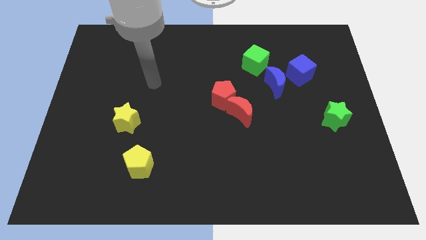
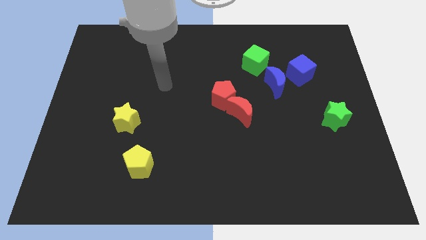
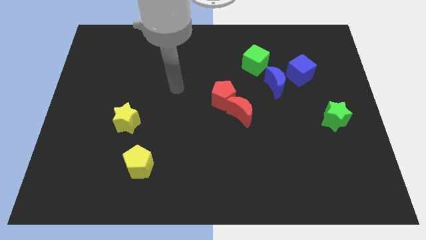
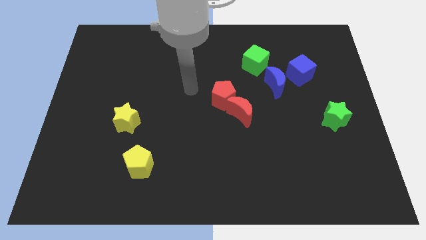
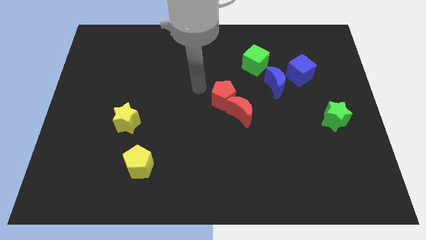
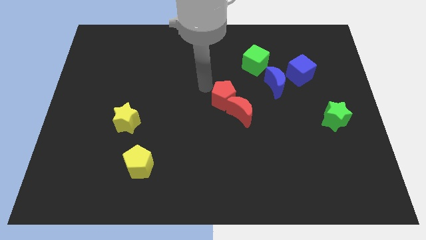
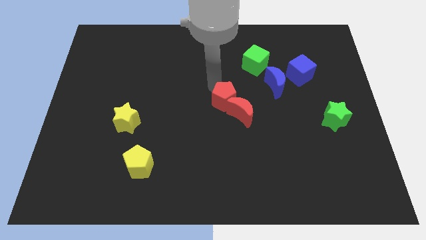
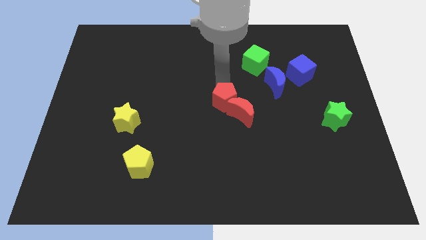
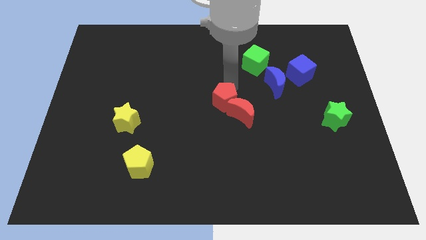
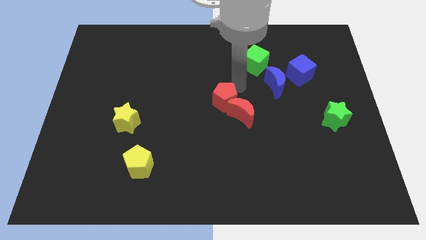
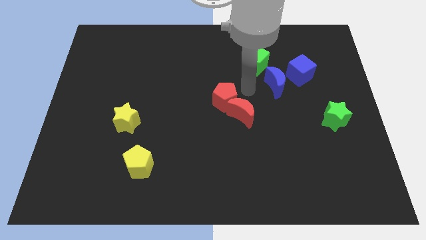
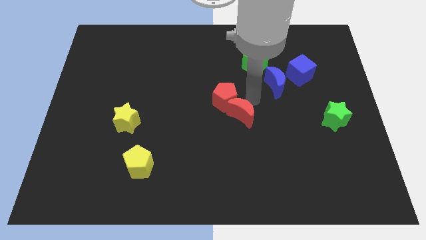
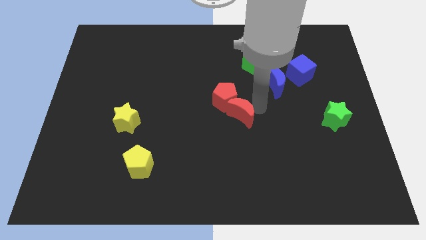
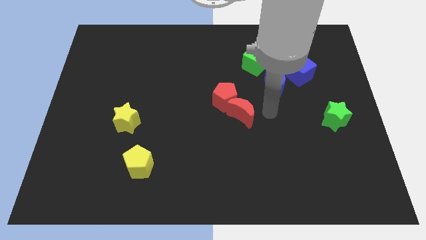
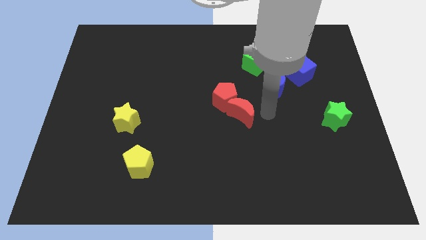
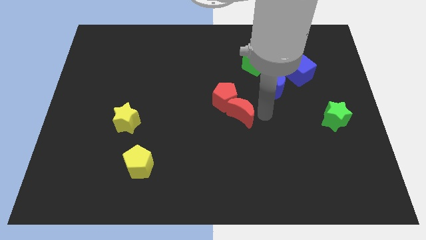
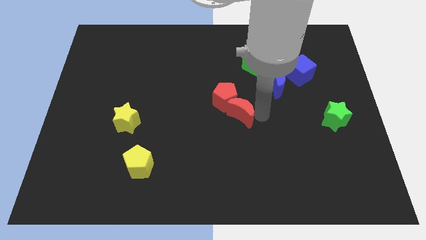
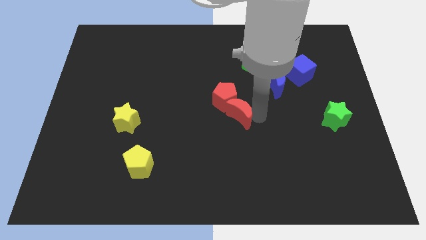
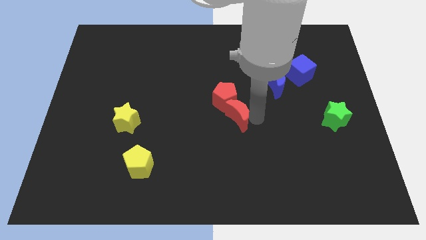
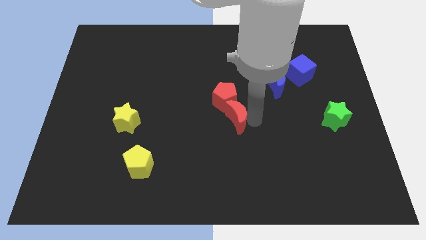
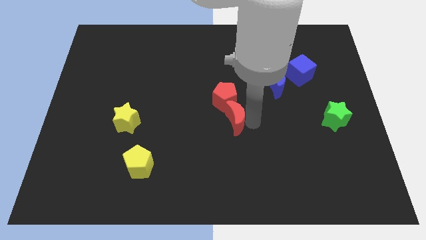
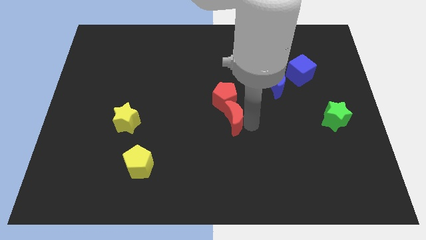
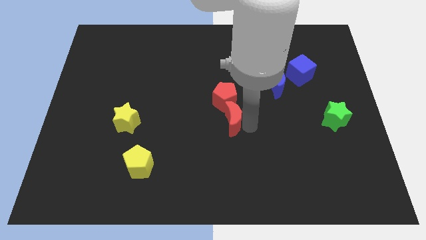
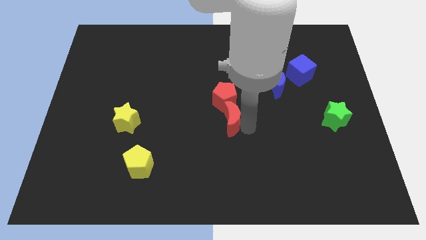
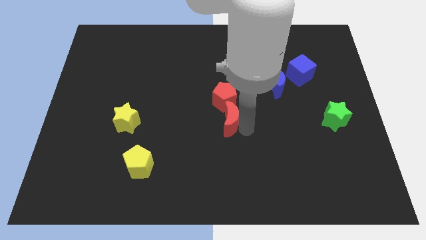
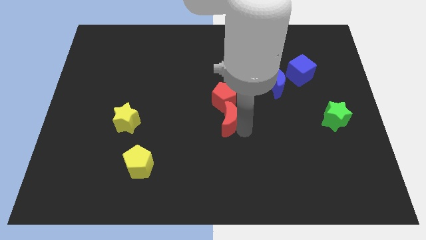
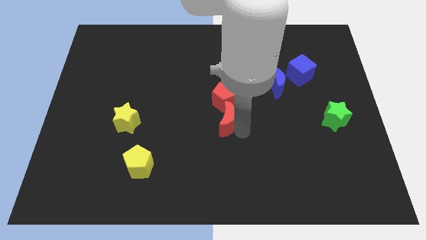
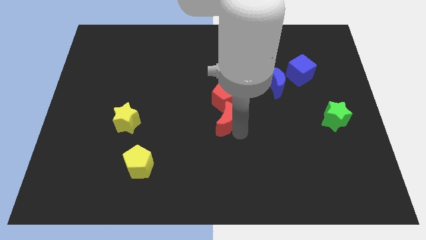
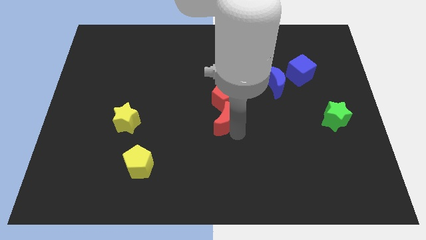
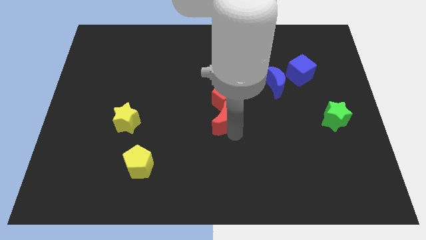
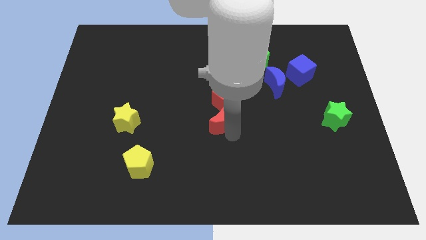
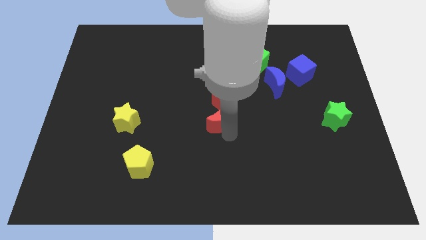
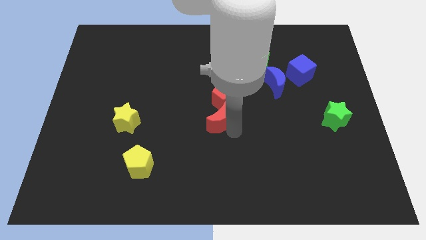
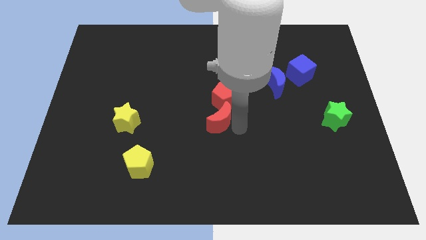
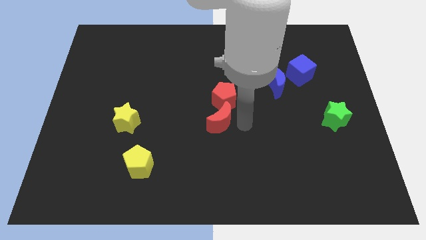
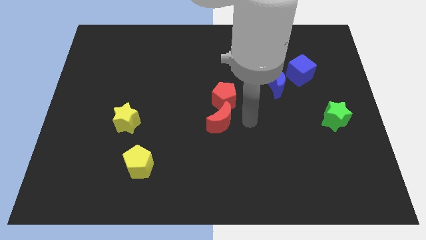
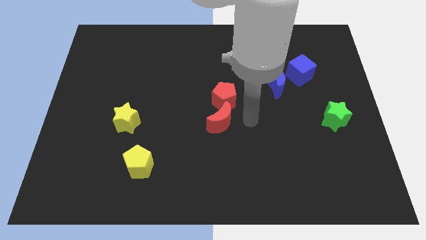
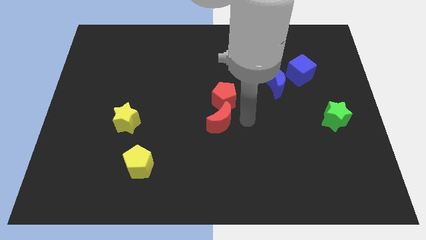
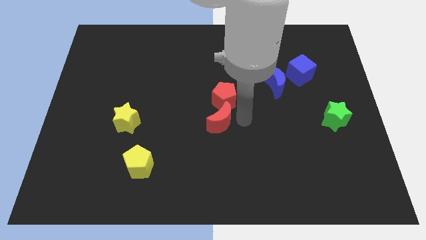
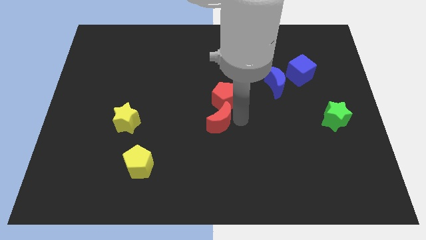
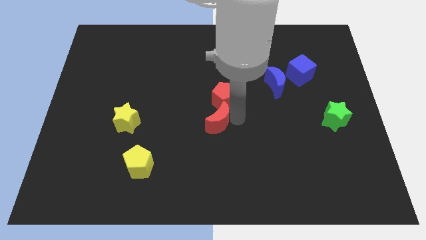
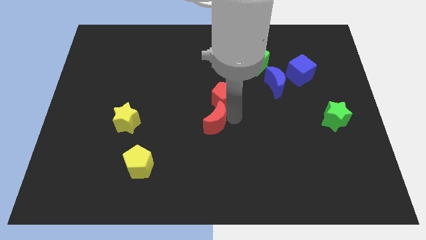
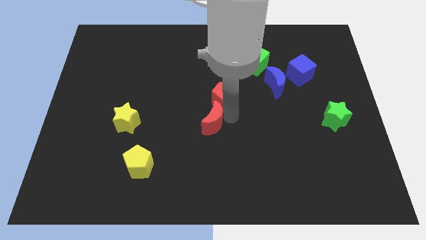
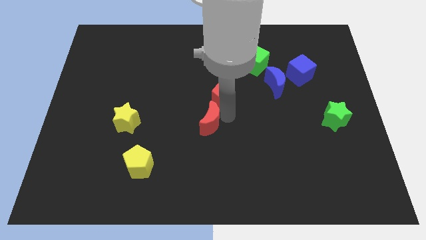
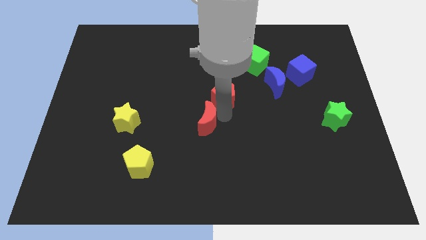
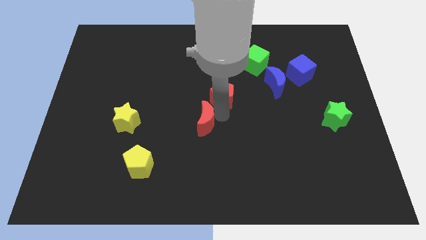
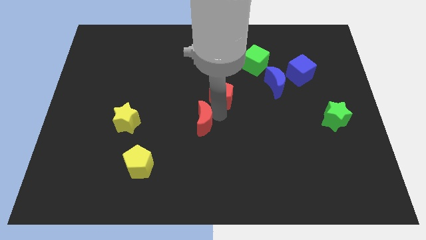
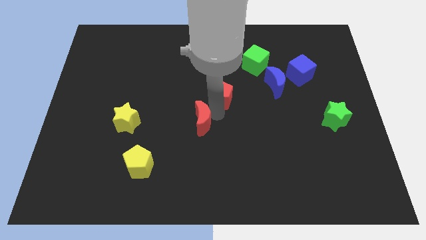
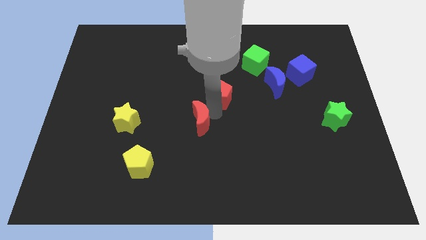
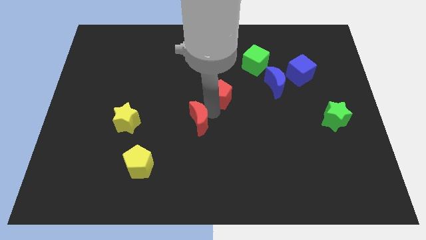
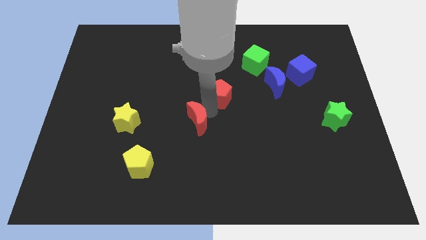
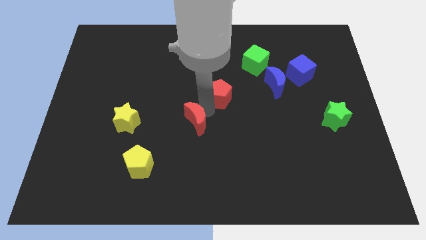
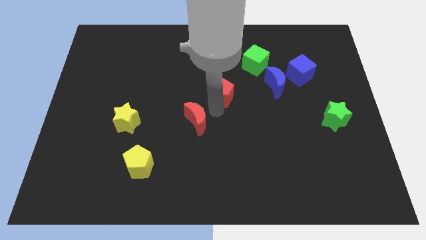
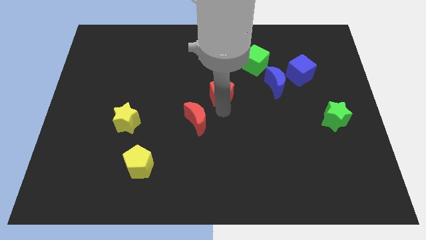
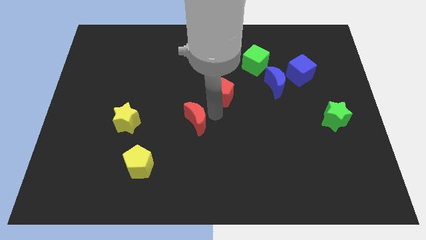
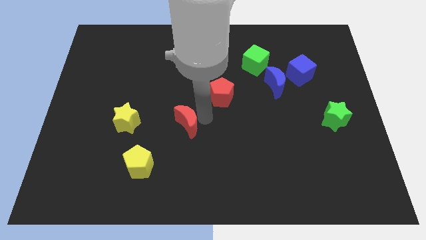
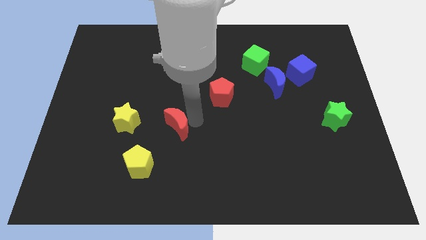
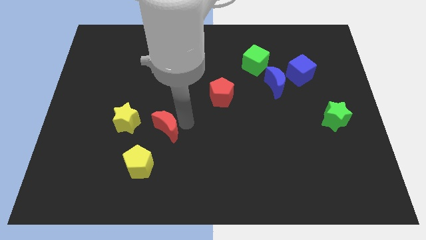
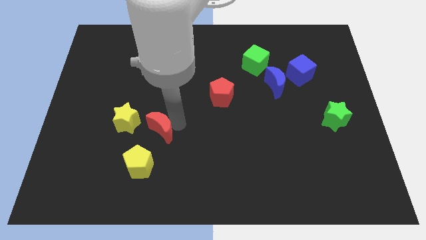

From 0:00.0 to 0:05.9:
put the red moon to the bottom right side of the yellow star

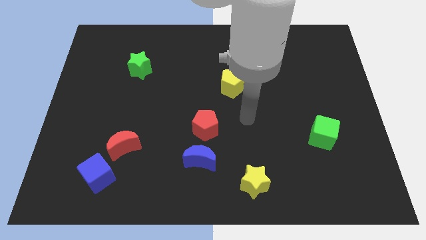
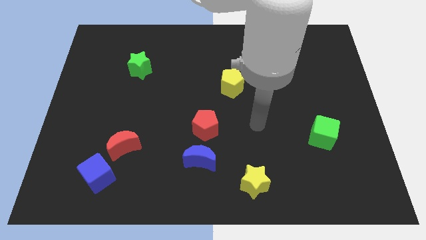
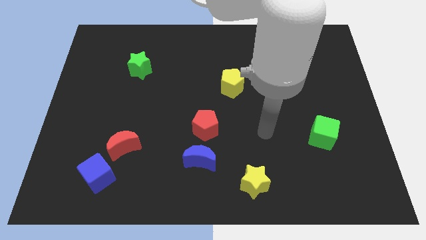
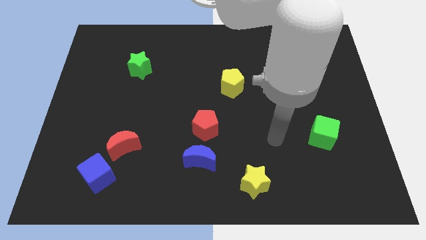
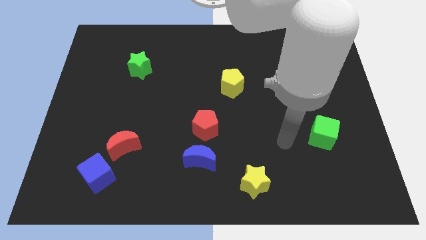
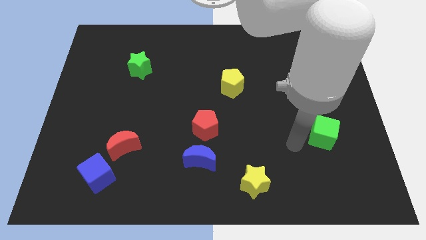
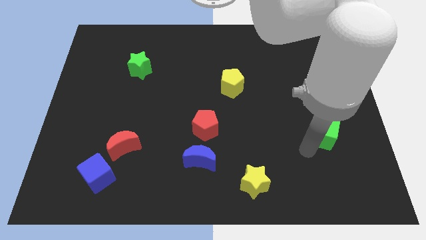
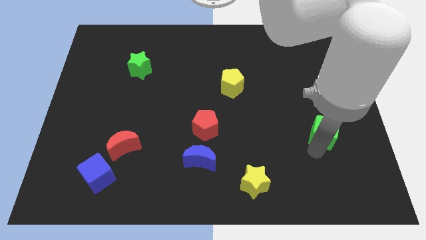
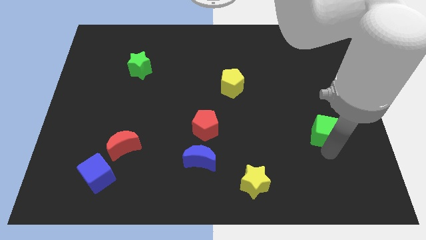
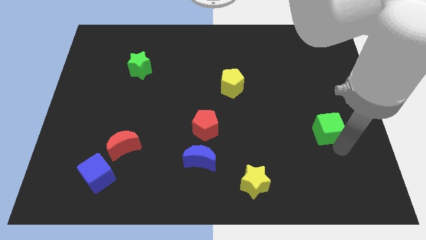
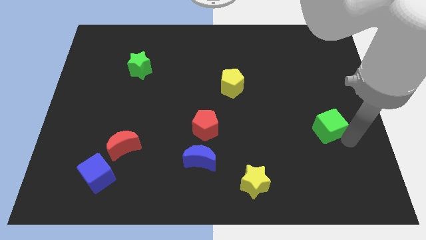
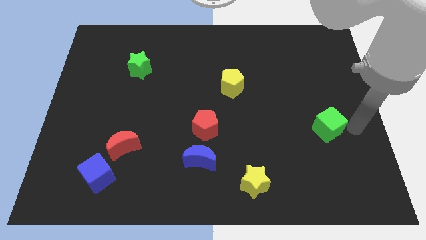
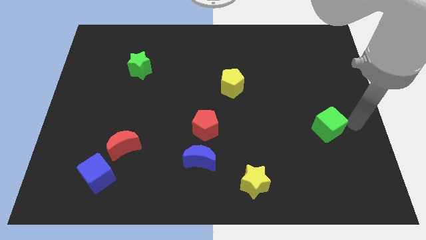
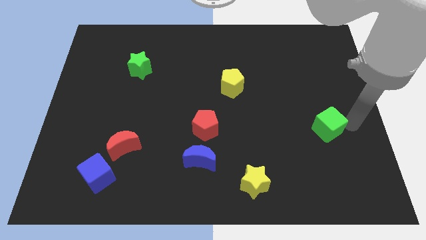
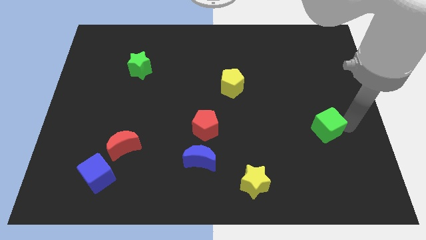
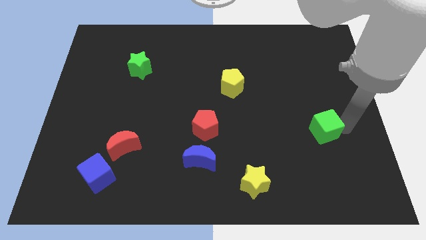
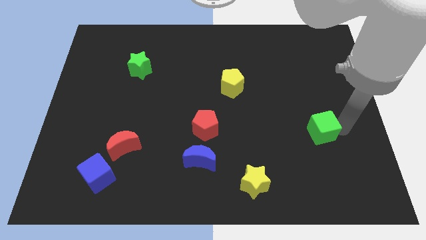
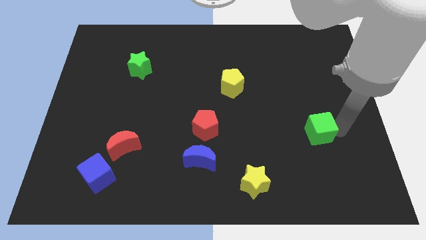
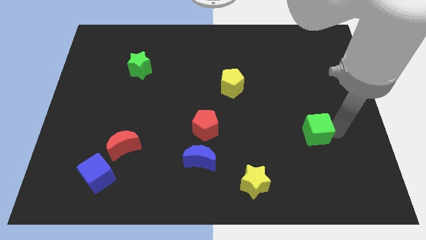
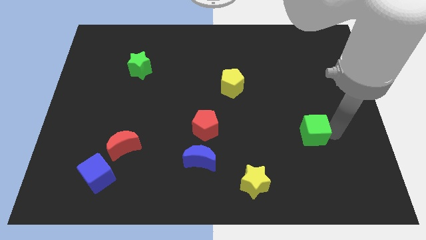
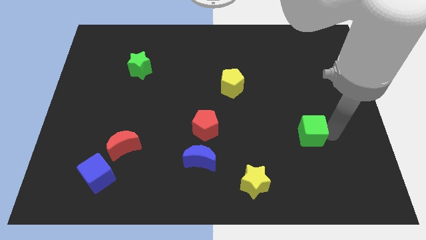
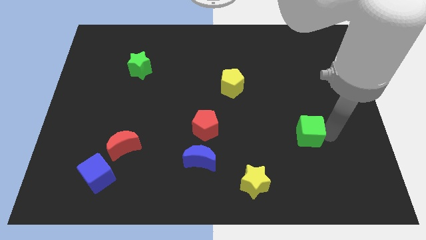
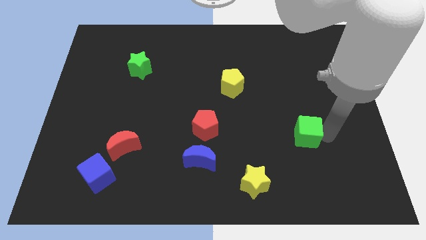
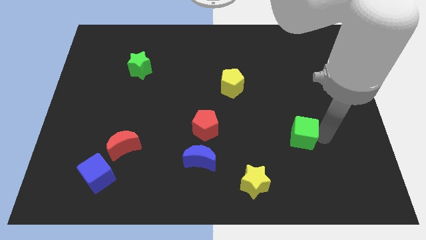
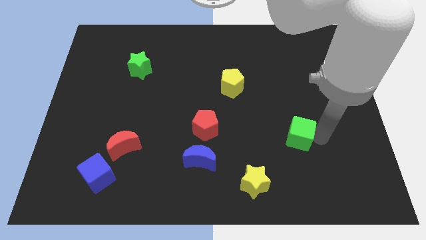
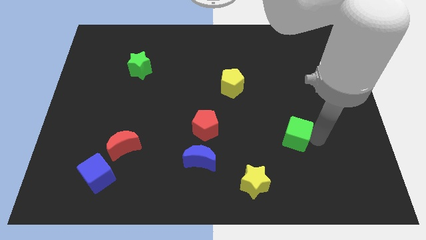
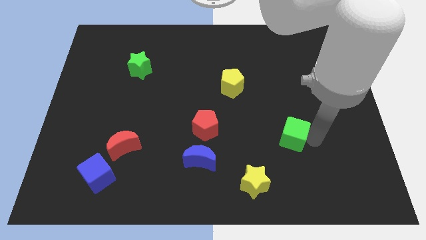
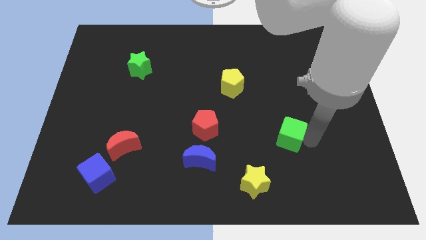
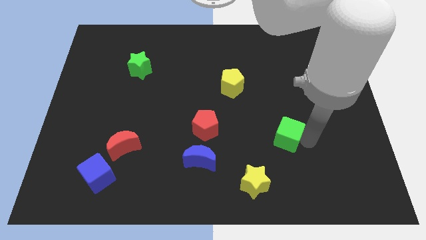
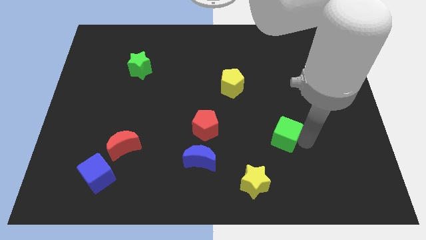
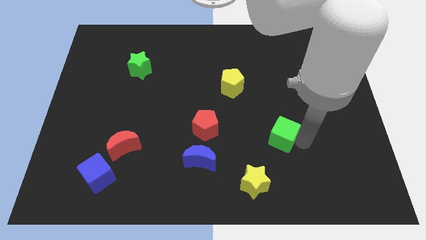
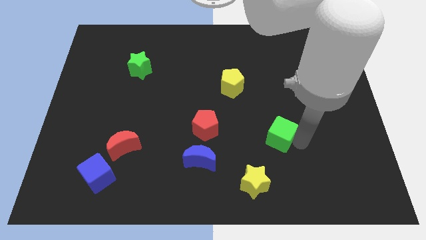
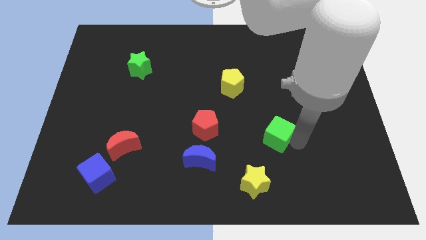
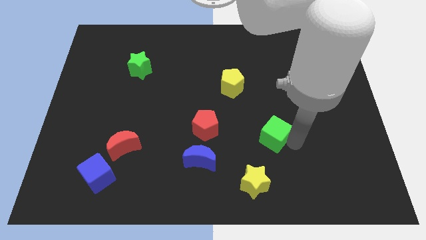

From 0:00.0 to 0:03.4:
put the green cube to the right side of the red pentagon
